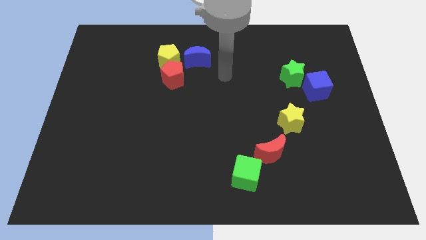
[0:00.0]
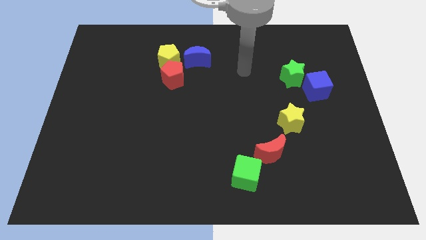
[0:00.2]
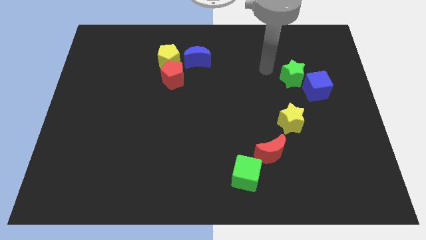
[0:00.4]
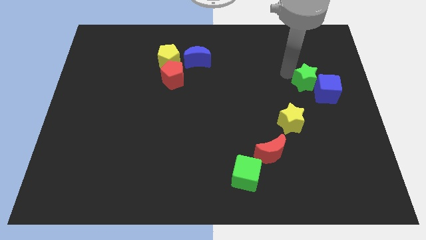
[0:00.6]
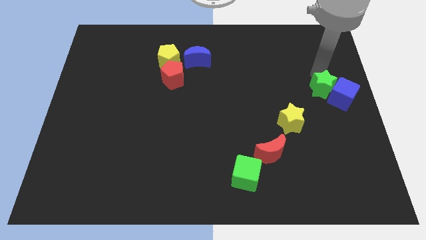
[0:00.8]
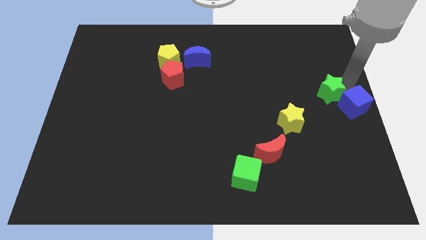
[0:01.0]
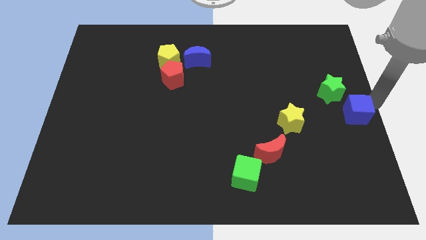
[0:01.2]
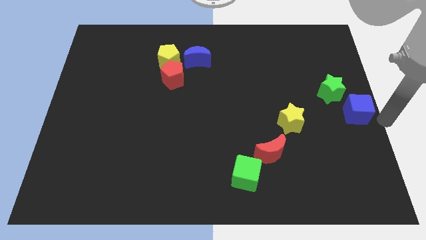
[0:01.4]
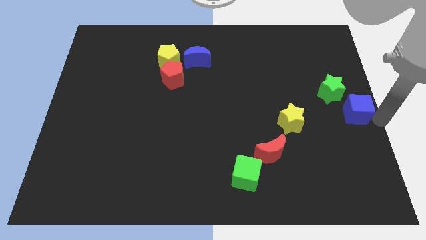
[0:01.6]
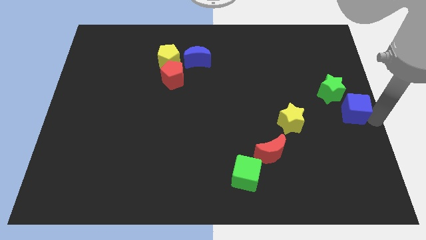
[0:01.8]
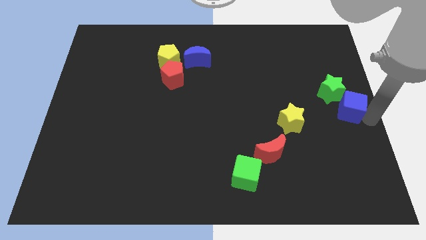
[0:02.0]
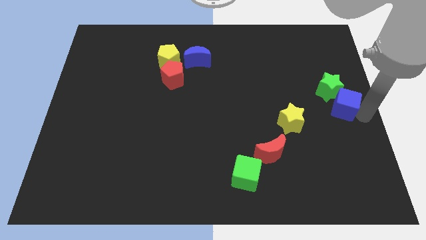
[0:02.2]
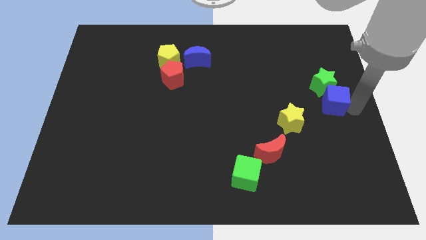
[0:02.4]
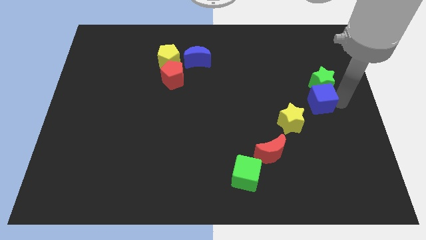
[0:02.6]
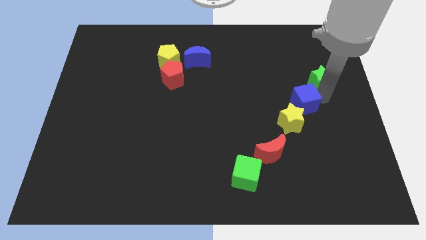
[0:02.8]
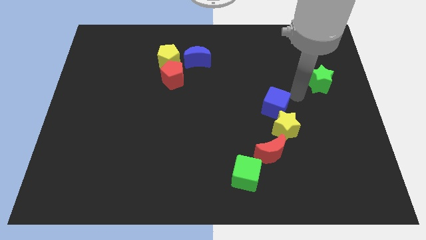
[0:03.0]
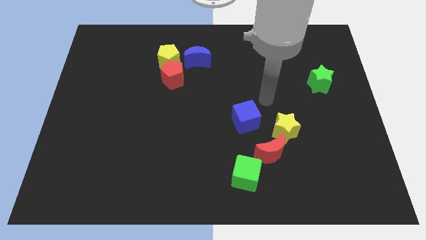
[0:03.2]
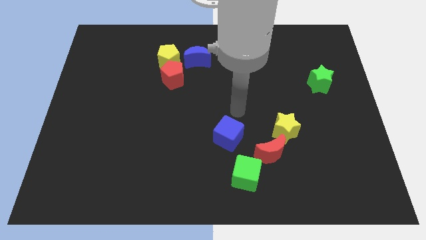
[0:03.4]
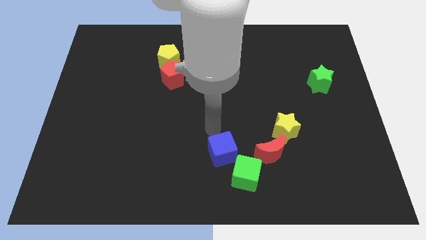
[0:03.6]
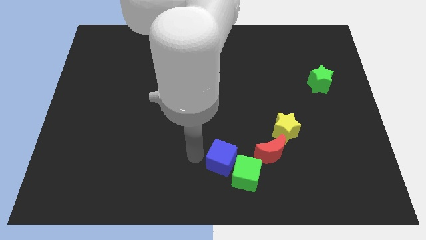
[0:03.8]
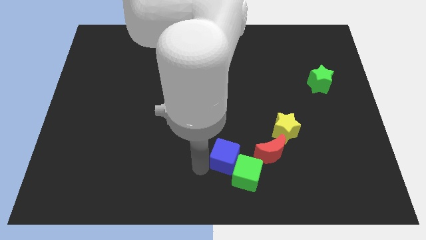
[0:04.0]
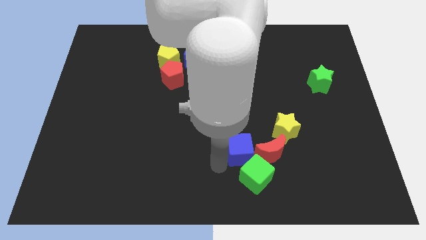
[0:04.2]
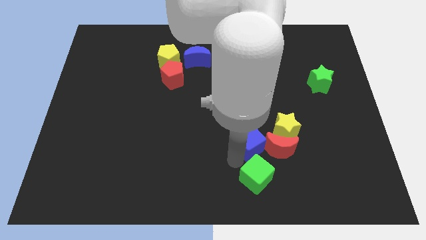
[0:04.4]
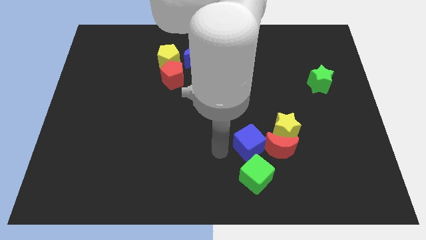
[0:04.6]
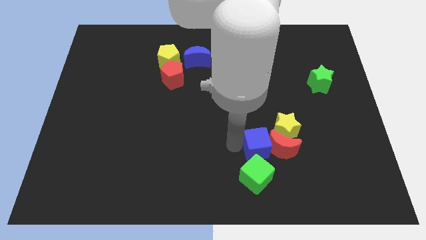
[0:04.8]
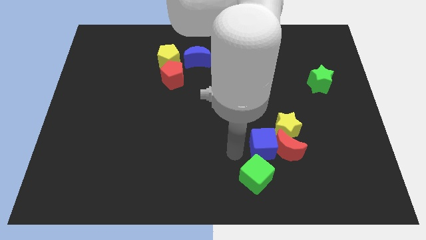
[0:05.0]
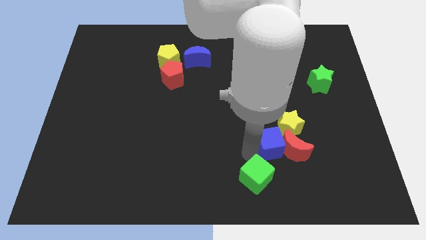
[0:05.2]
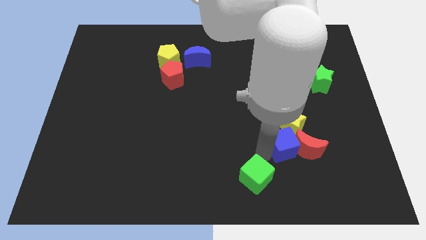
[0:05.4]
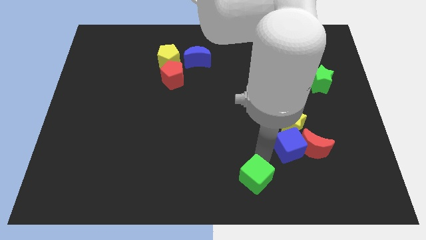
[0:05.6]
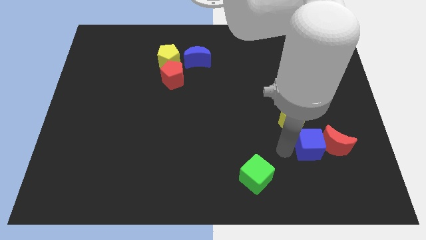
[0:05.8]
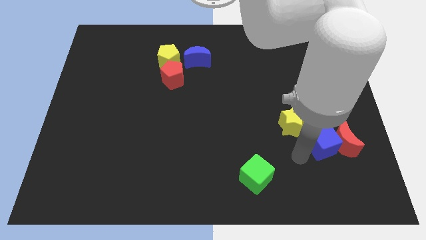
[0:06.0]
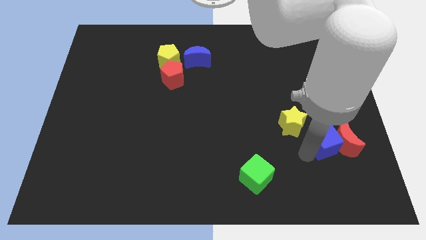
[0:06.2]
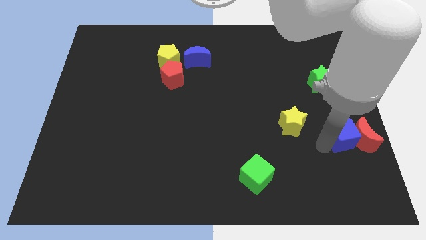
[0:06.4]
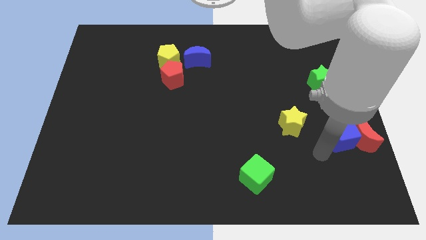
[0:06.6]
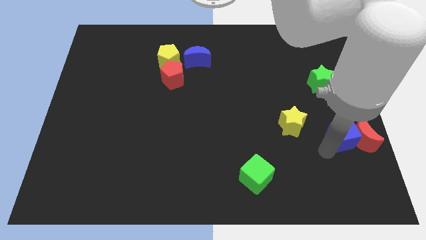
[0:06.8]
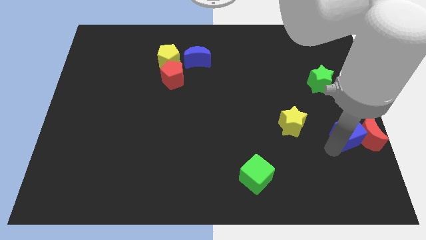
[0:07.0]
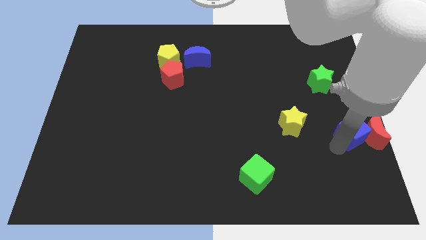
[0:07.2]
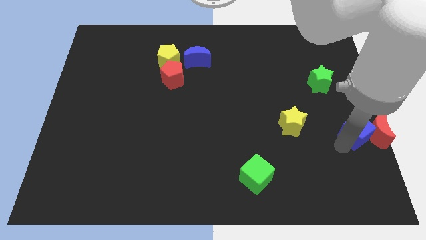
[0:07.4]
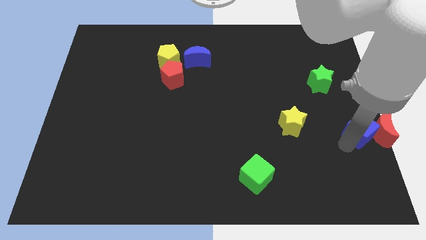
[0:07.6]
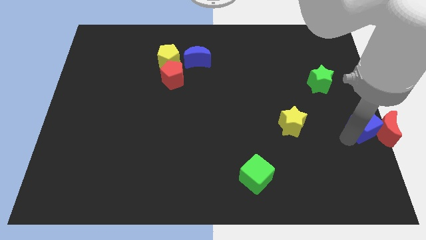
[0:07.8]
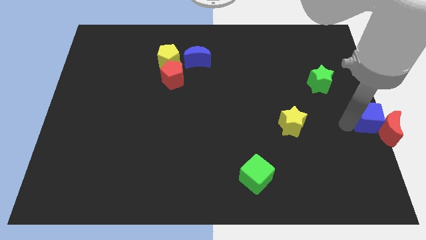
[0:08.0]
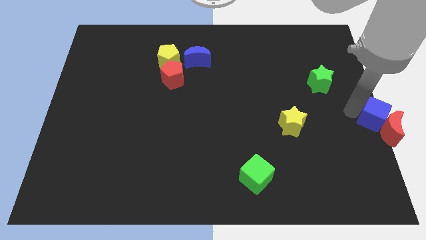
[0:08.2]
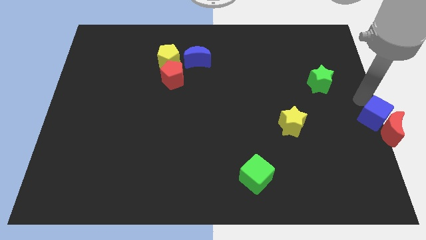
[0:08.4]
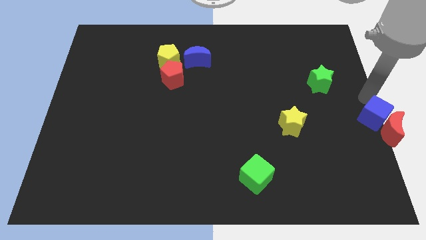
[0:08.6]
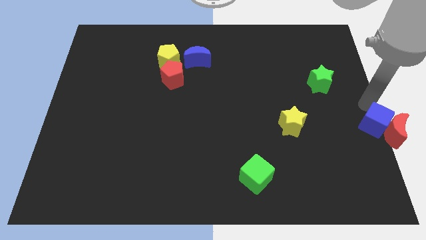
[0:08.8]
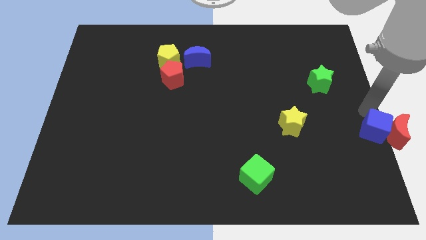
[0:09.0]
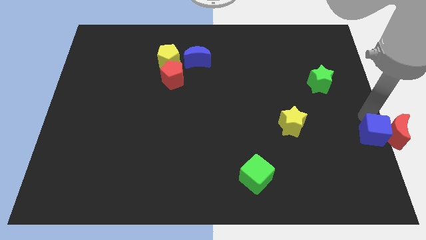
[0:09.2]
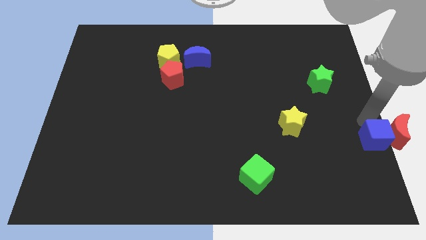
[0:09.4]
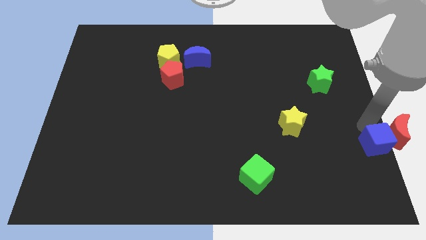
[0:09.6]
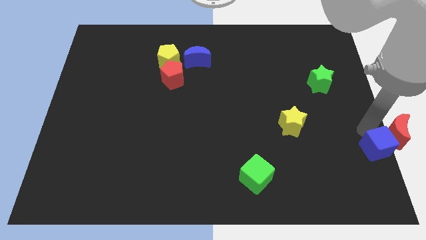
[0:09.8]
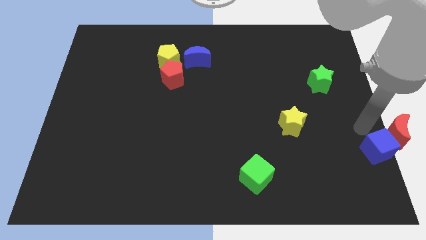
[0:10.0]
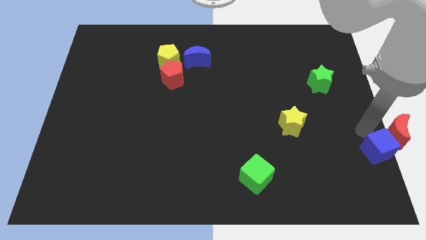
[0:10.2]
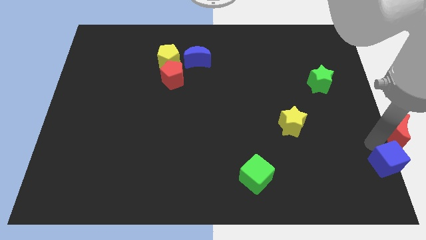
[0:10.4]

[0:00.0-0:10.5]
push the blue cube to the bottom right corner
